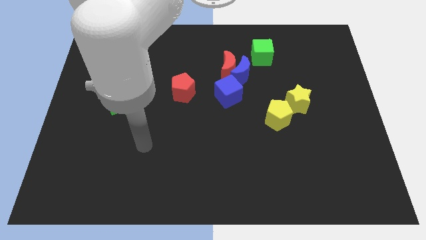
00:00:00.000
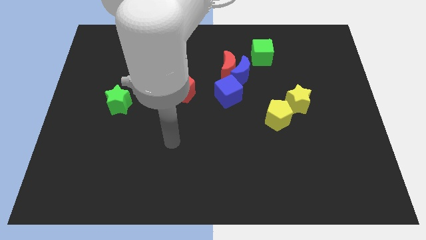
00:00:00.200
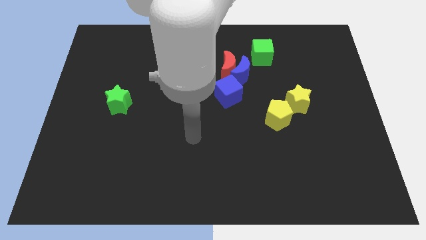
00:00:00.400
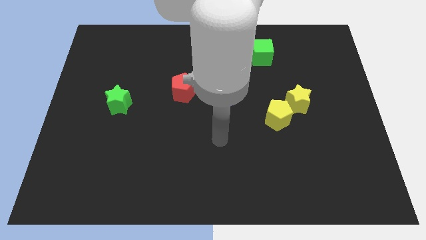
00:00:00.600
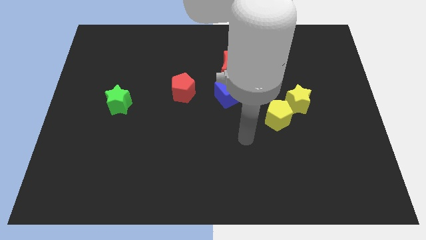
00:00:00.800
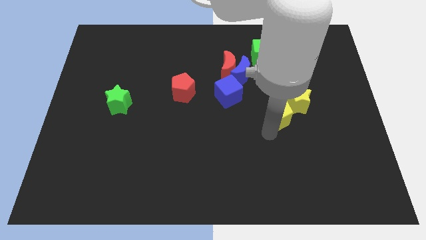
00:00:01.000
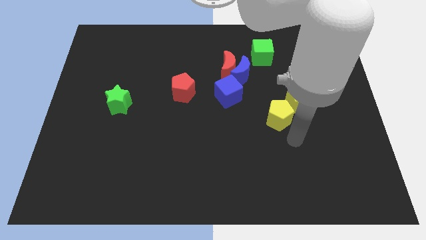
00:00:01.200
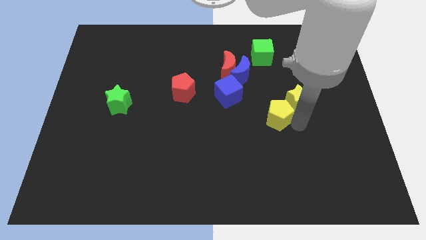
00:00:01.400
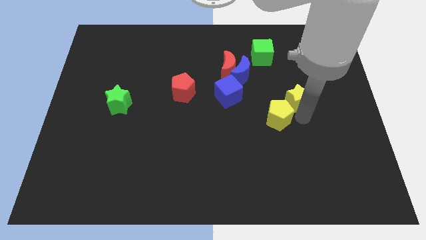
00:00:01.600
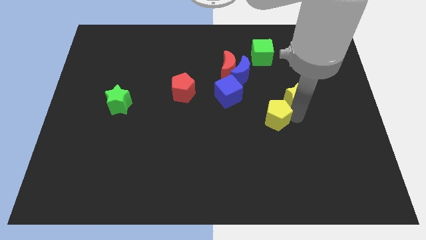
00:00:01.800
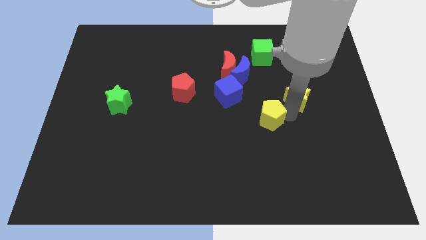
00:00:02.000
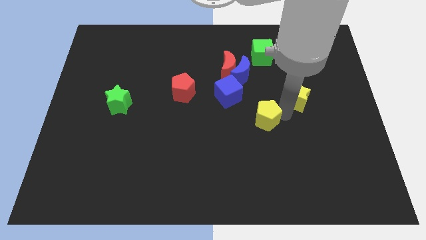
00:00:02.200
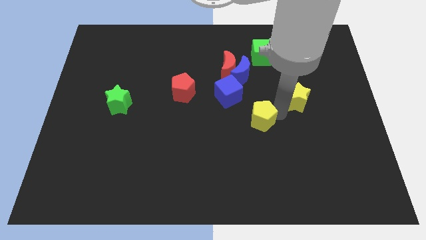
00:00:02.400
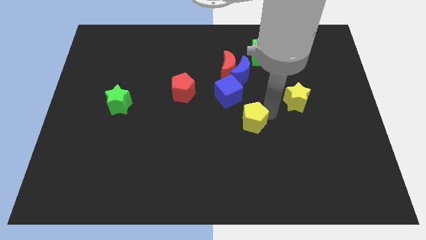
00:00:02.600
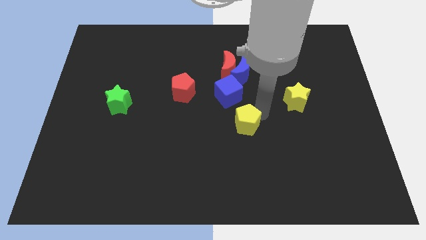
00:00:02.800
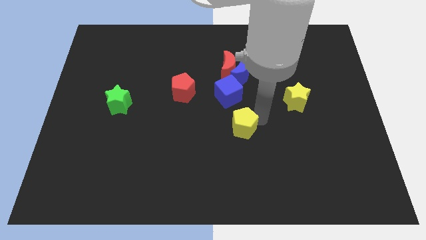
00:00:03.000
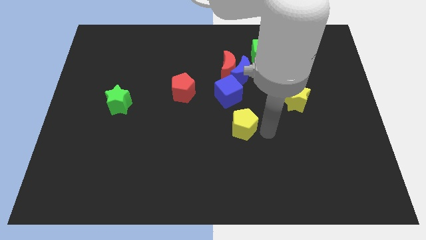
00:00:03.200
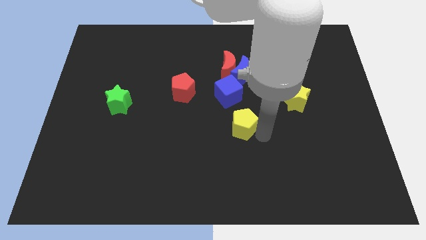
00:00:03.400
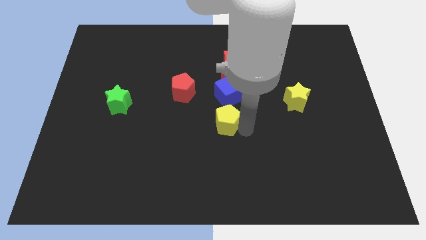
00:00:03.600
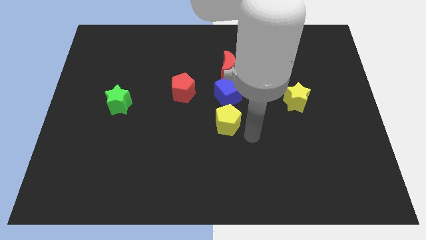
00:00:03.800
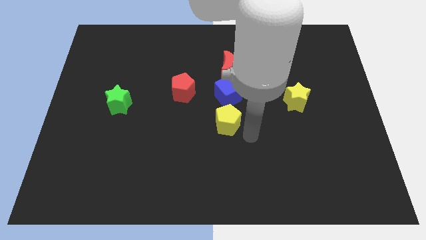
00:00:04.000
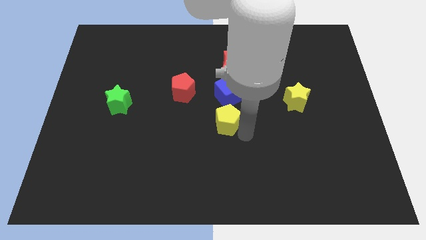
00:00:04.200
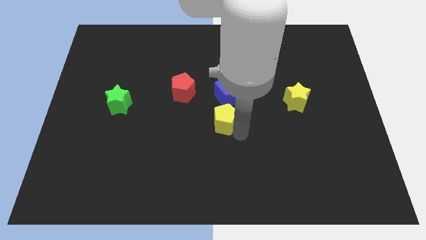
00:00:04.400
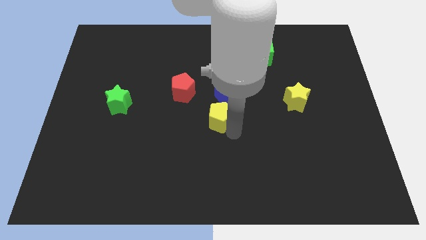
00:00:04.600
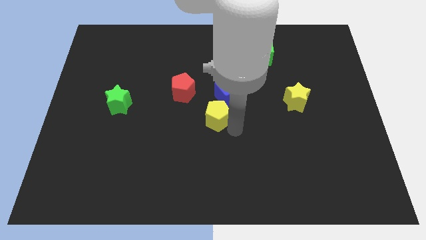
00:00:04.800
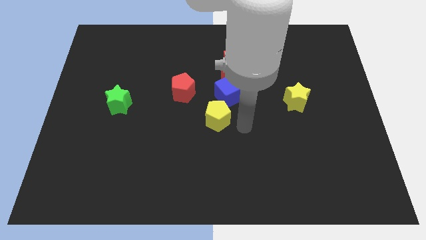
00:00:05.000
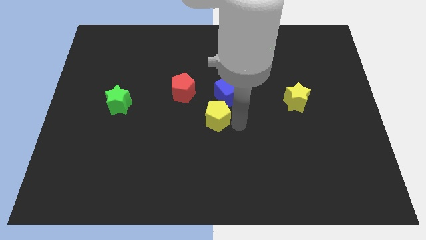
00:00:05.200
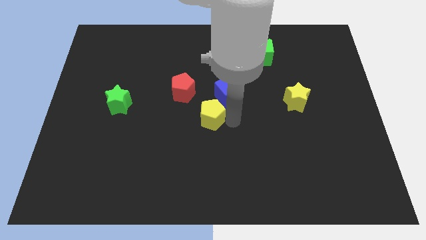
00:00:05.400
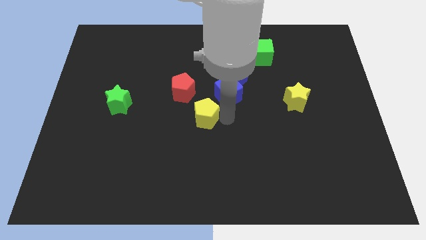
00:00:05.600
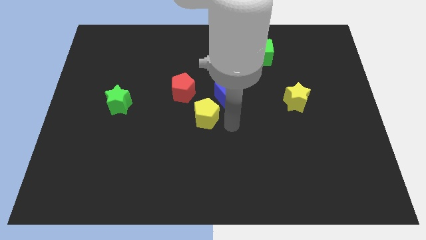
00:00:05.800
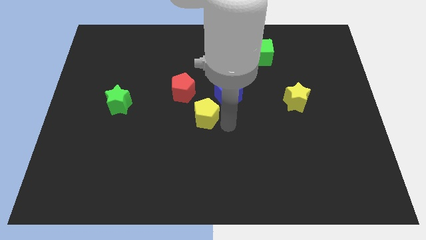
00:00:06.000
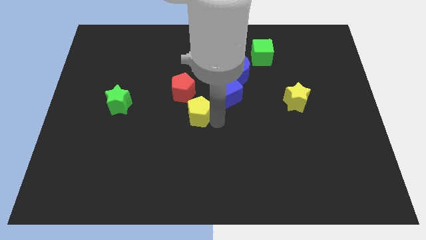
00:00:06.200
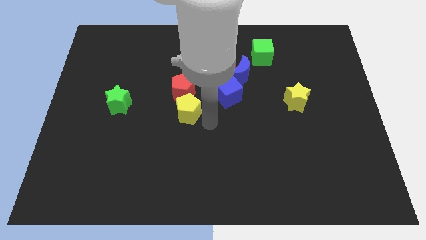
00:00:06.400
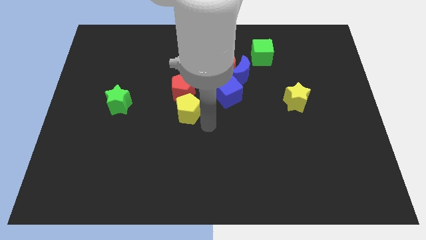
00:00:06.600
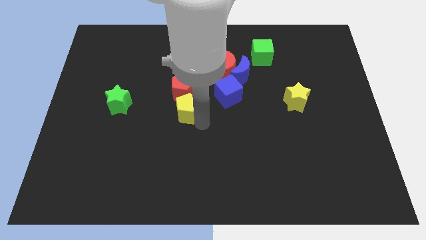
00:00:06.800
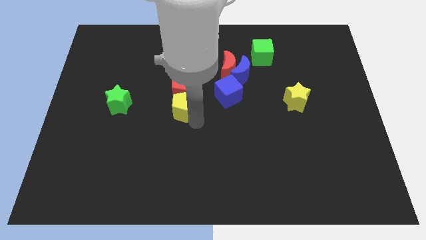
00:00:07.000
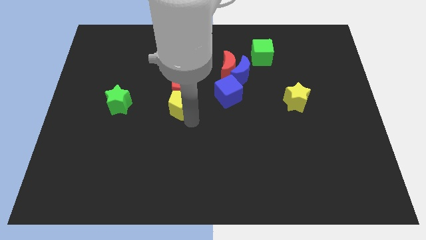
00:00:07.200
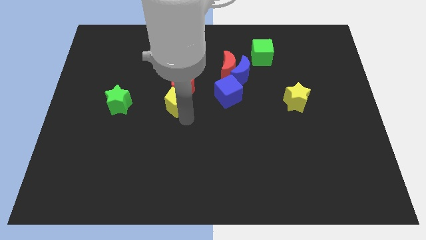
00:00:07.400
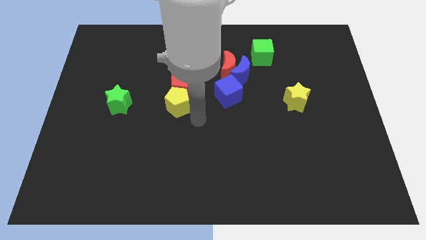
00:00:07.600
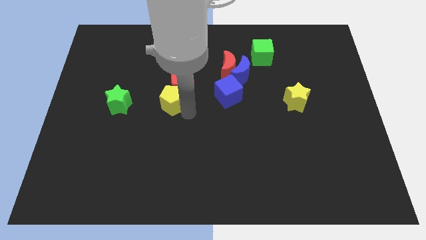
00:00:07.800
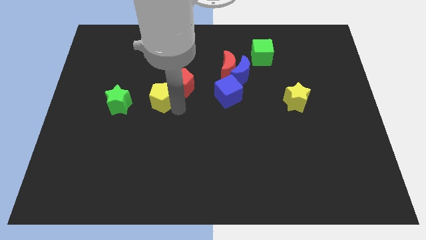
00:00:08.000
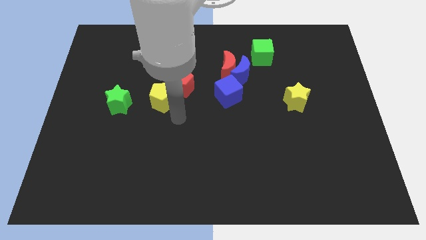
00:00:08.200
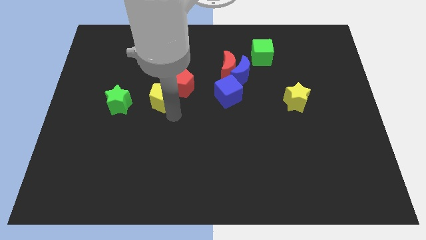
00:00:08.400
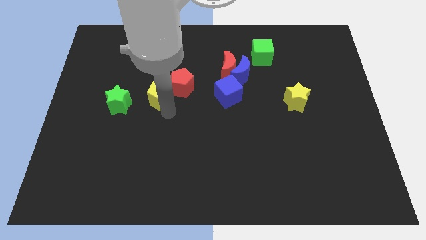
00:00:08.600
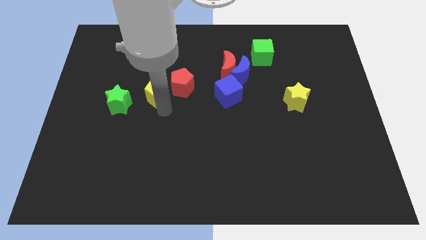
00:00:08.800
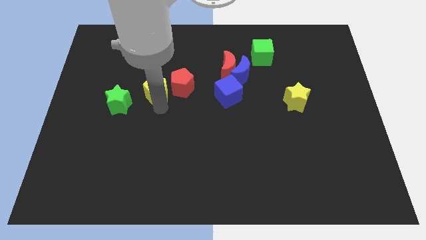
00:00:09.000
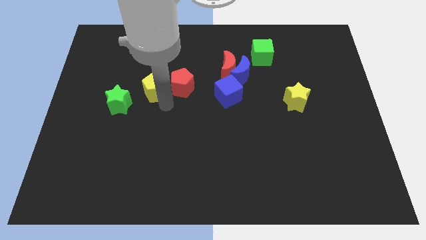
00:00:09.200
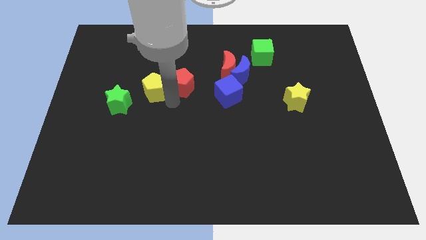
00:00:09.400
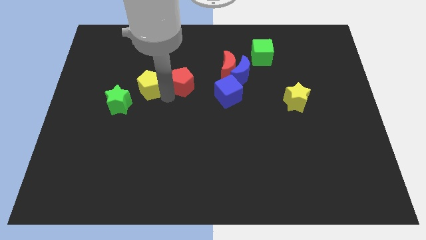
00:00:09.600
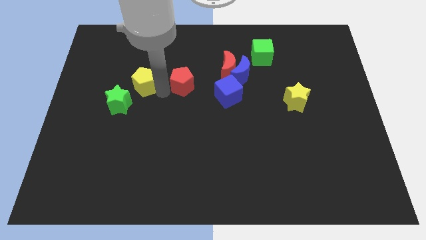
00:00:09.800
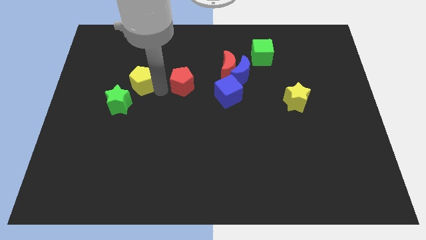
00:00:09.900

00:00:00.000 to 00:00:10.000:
move the yellow pentagon to the top of the green star

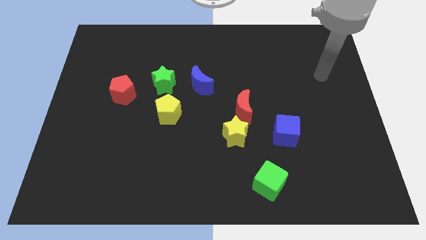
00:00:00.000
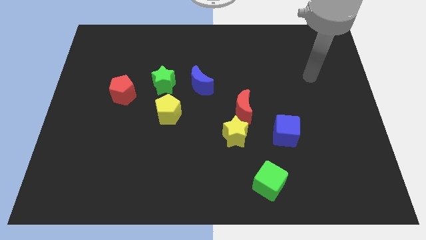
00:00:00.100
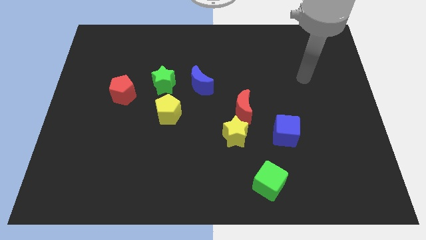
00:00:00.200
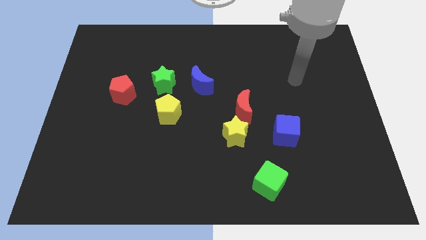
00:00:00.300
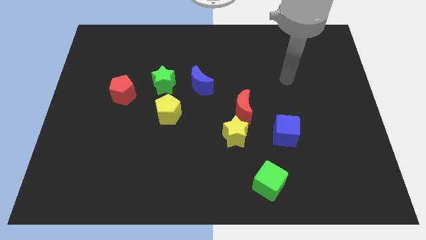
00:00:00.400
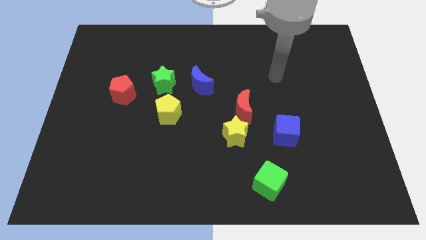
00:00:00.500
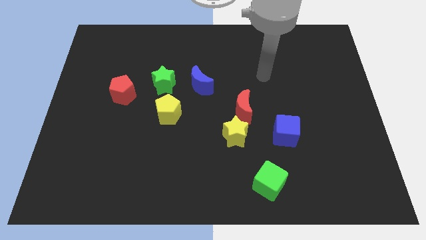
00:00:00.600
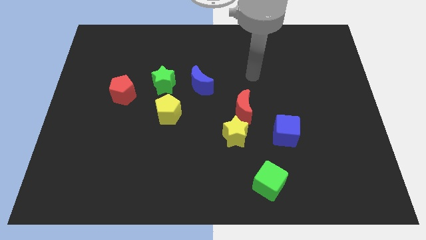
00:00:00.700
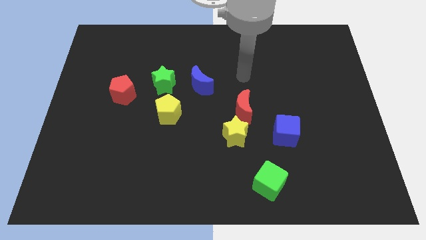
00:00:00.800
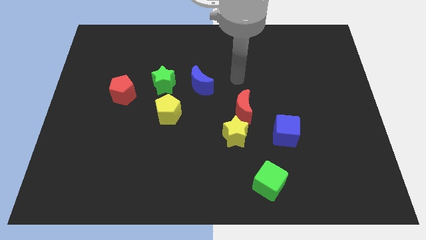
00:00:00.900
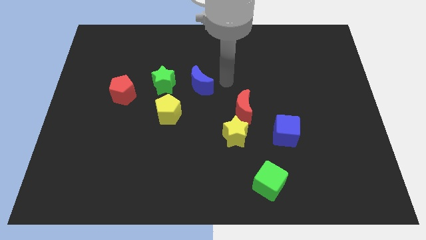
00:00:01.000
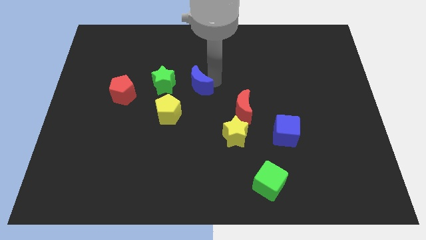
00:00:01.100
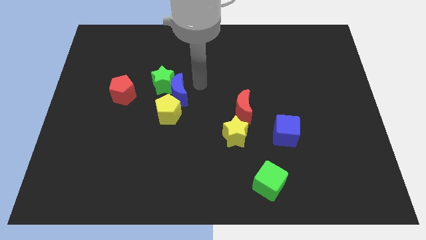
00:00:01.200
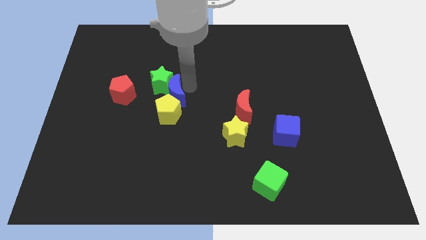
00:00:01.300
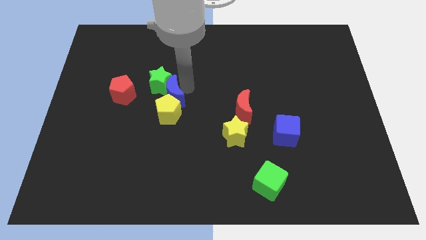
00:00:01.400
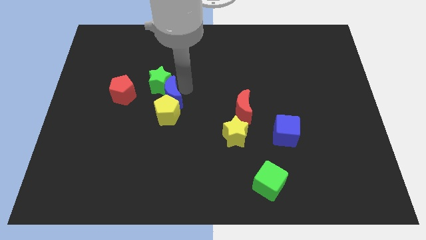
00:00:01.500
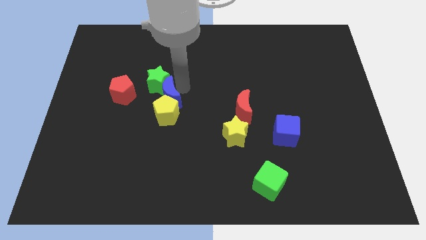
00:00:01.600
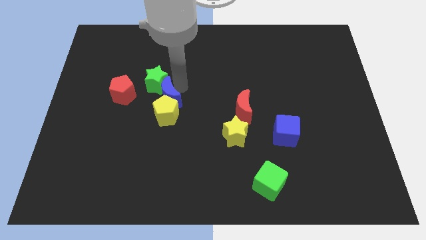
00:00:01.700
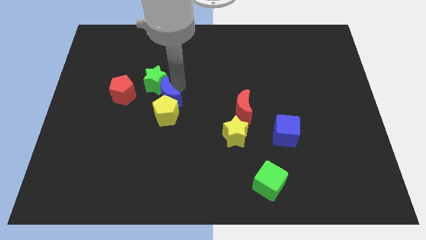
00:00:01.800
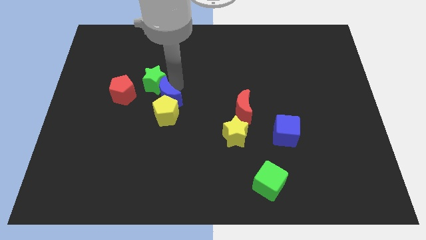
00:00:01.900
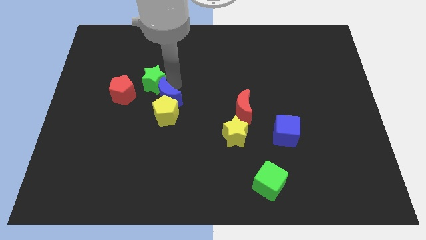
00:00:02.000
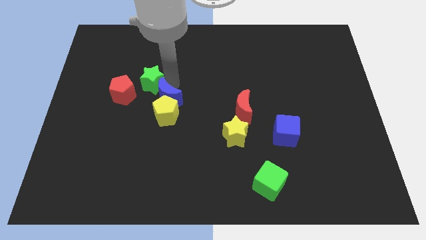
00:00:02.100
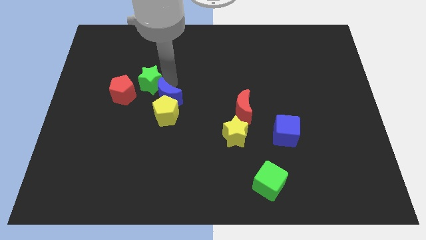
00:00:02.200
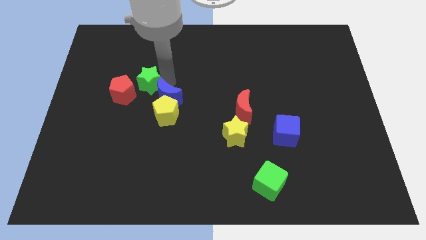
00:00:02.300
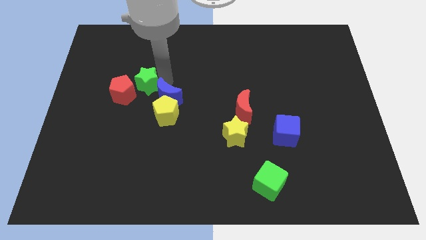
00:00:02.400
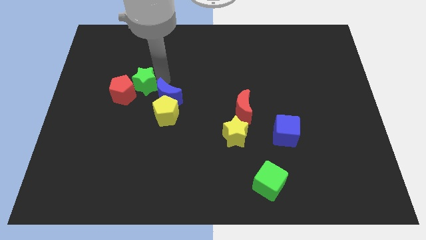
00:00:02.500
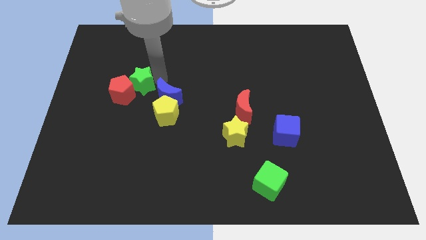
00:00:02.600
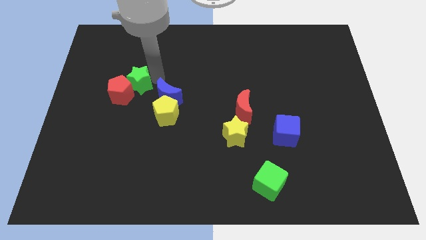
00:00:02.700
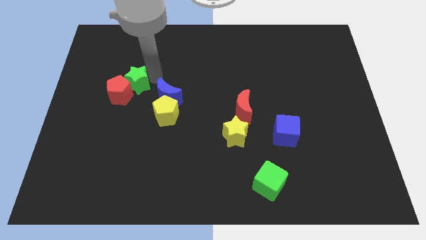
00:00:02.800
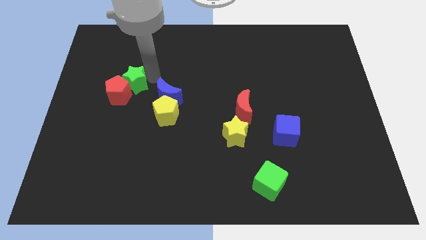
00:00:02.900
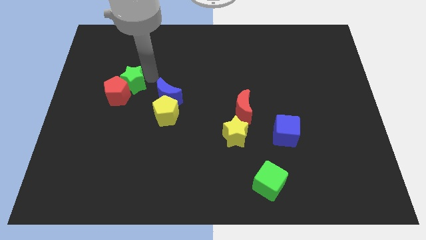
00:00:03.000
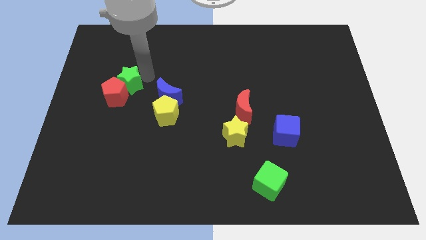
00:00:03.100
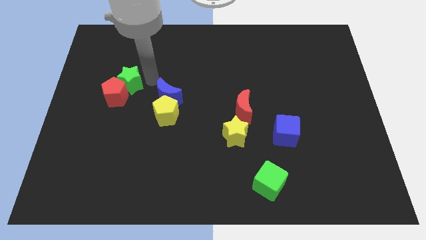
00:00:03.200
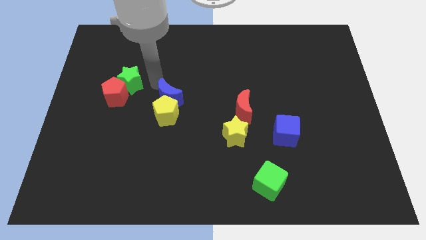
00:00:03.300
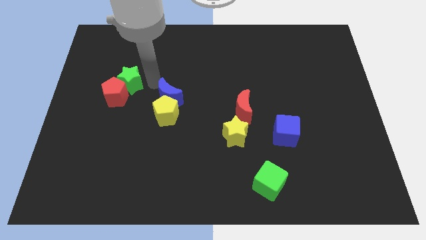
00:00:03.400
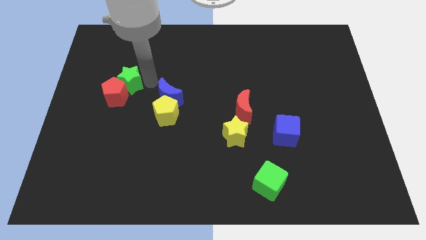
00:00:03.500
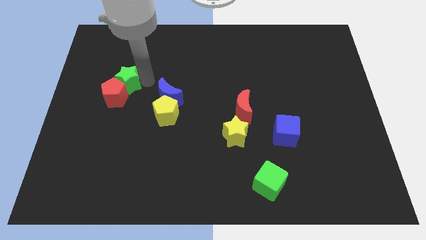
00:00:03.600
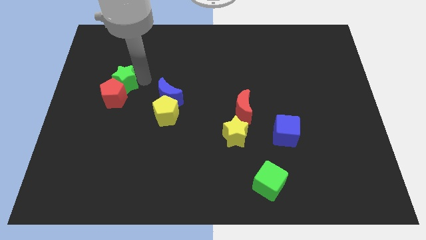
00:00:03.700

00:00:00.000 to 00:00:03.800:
push the green star to the top left of the red pentagon
